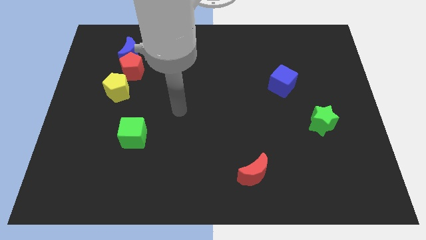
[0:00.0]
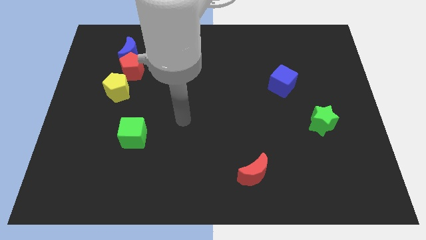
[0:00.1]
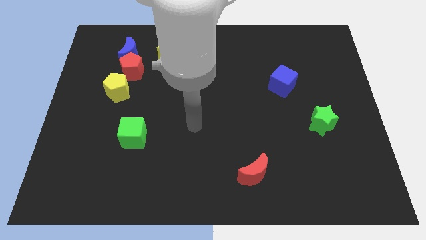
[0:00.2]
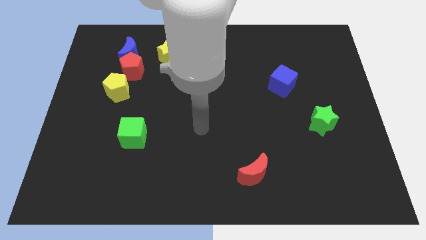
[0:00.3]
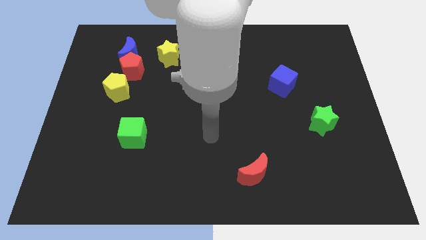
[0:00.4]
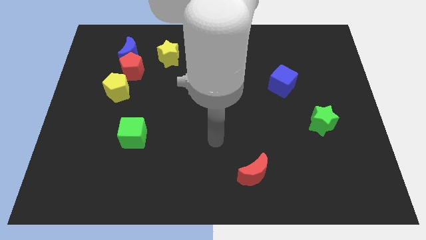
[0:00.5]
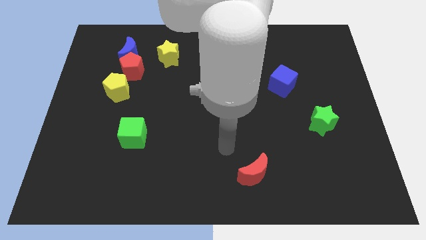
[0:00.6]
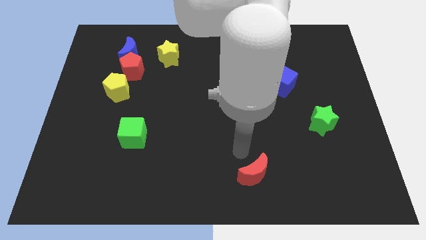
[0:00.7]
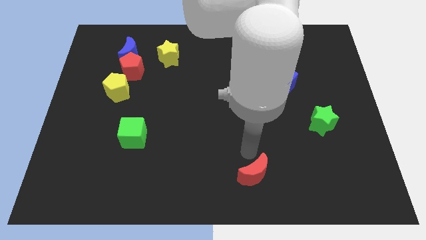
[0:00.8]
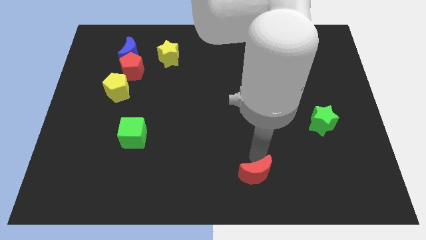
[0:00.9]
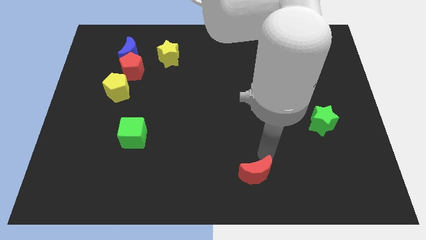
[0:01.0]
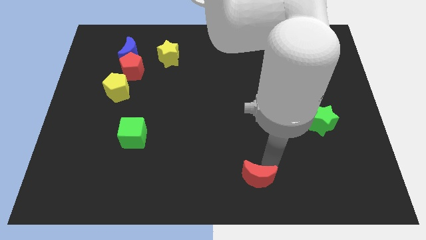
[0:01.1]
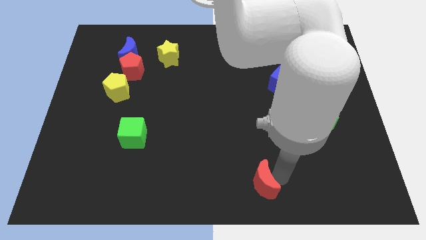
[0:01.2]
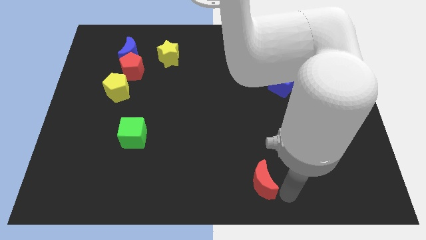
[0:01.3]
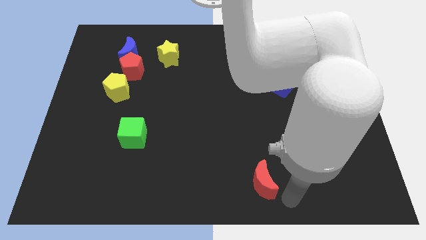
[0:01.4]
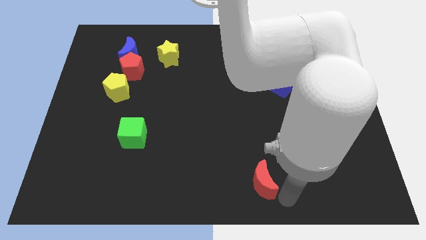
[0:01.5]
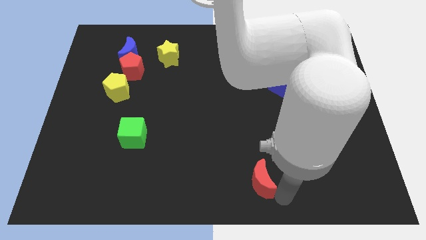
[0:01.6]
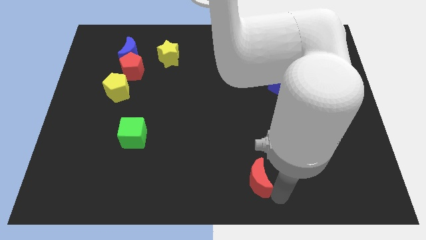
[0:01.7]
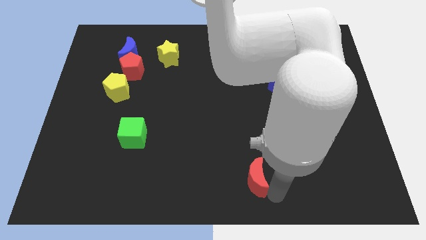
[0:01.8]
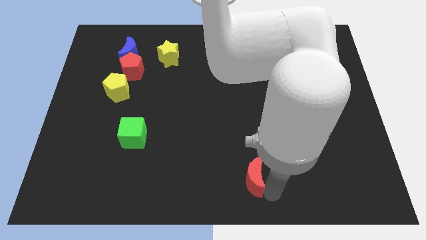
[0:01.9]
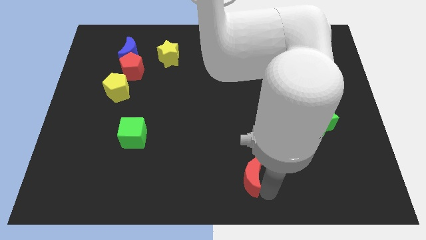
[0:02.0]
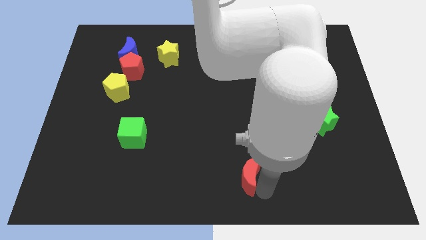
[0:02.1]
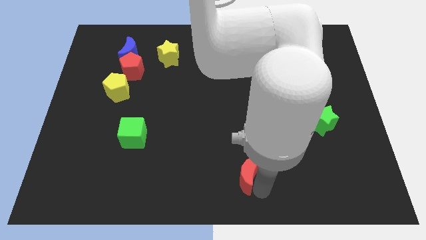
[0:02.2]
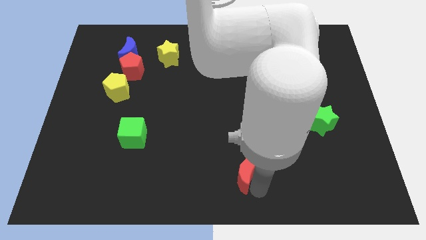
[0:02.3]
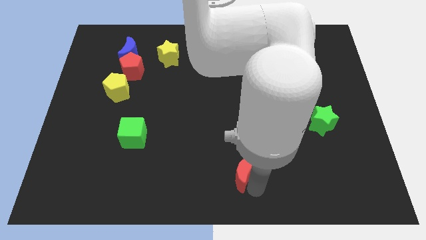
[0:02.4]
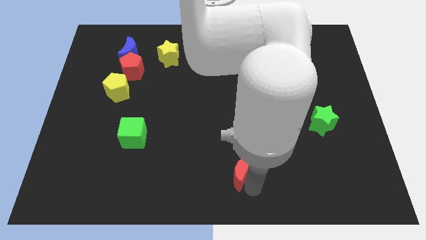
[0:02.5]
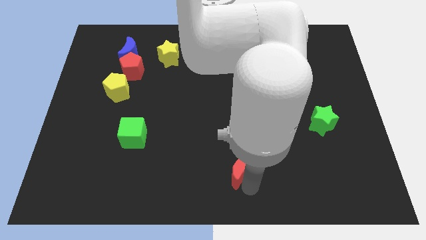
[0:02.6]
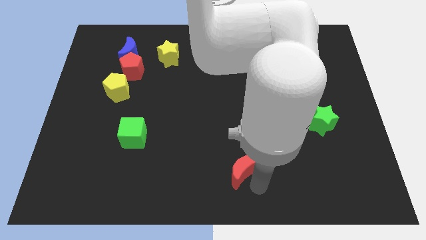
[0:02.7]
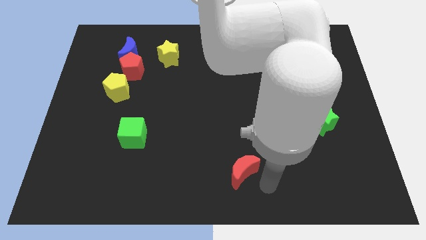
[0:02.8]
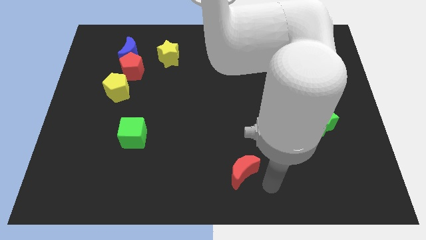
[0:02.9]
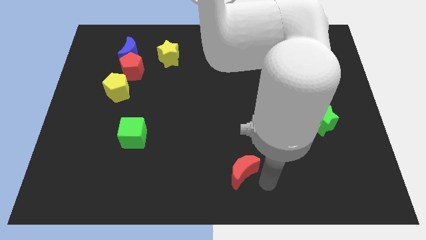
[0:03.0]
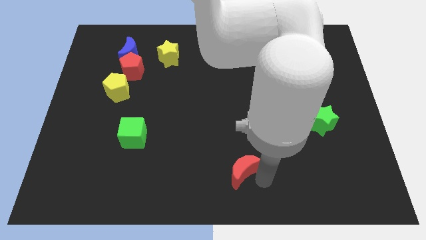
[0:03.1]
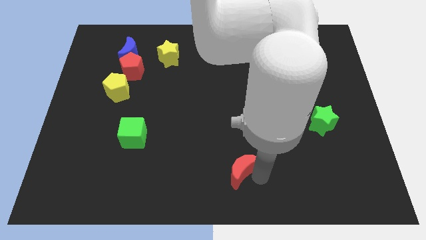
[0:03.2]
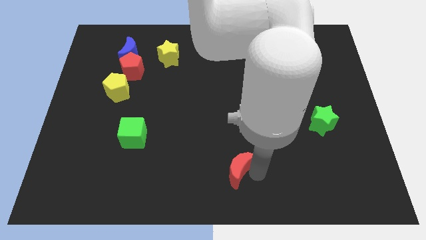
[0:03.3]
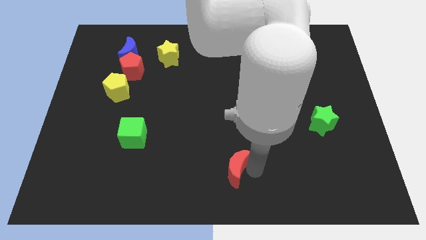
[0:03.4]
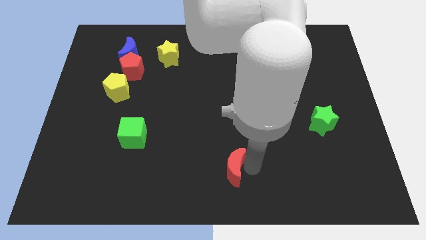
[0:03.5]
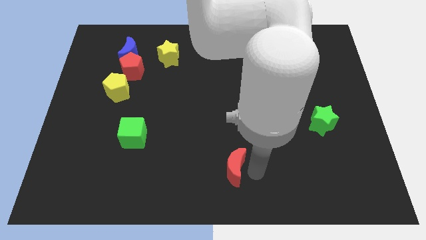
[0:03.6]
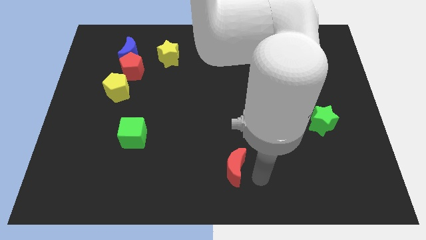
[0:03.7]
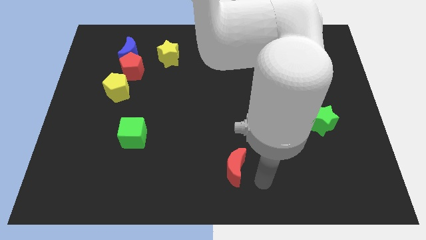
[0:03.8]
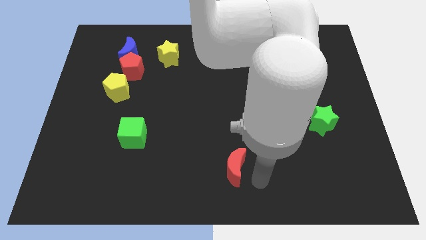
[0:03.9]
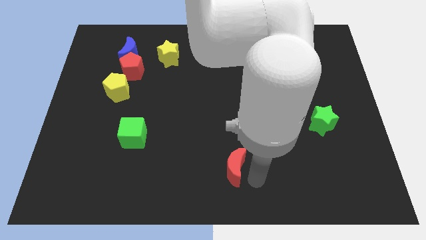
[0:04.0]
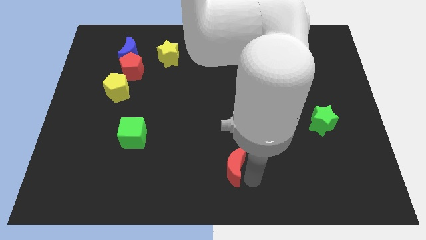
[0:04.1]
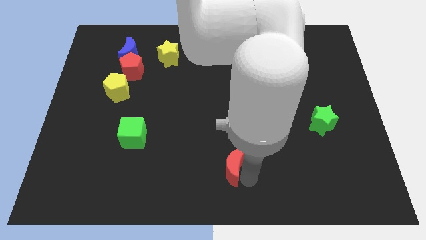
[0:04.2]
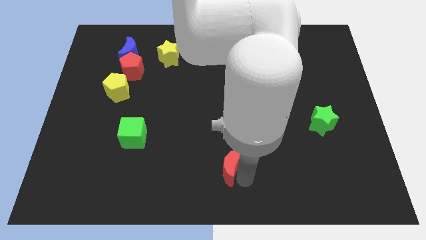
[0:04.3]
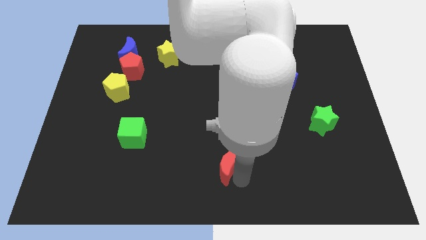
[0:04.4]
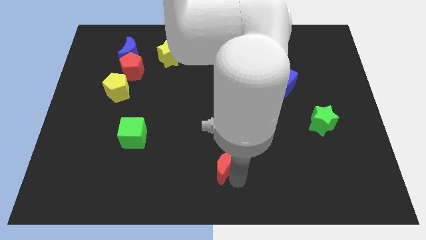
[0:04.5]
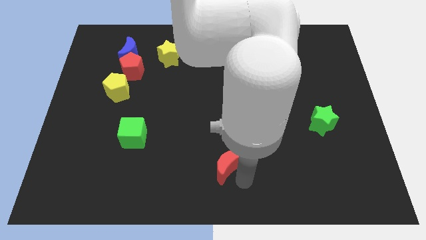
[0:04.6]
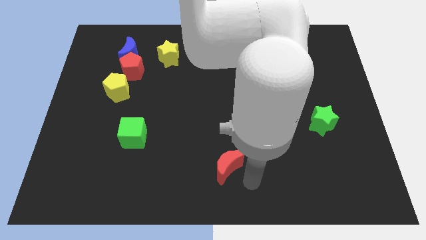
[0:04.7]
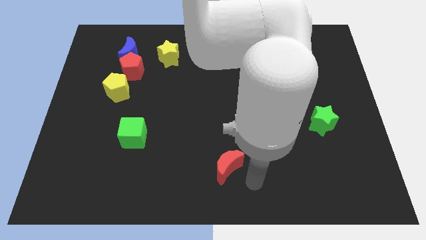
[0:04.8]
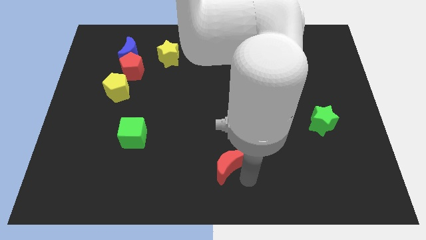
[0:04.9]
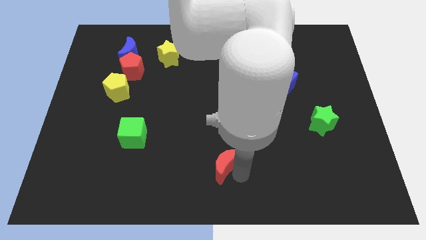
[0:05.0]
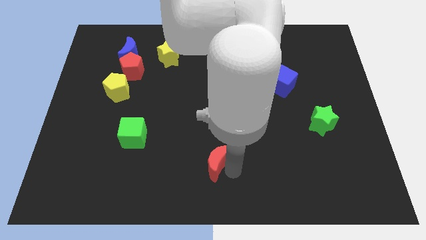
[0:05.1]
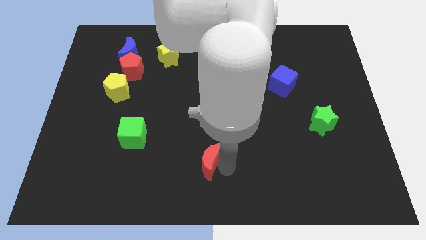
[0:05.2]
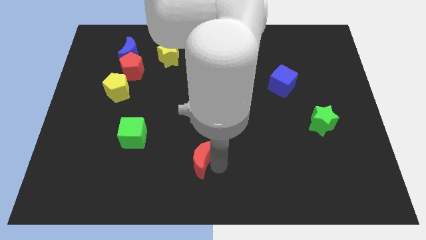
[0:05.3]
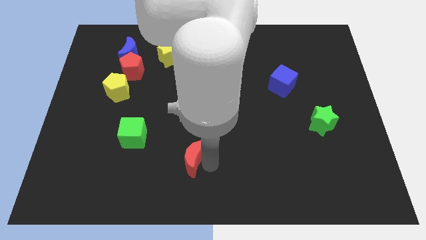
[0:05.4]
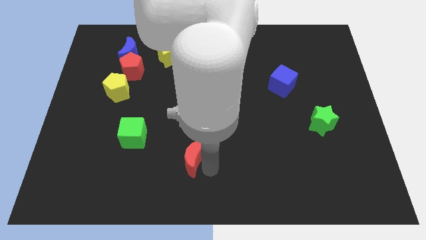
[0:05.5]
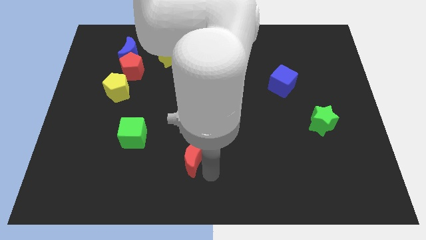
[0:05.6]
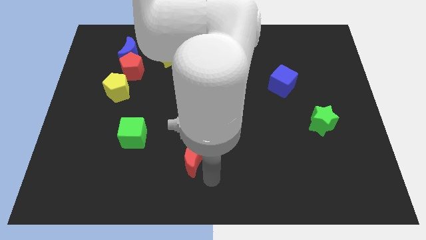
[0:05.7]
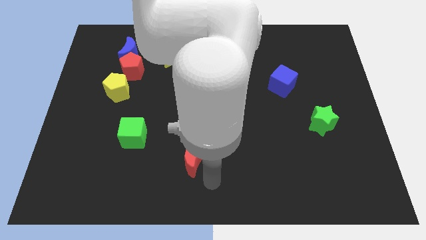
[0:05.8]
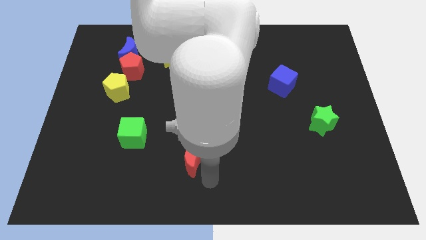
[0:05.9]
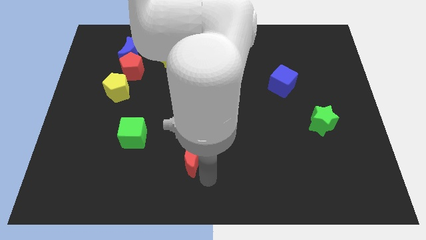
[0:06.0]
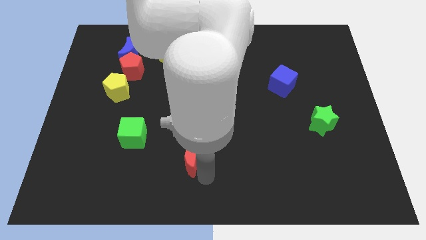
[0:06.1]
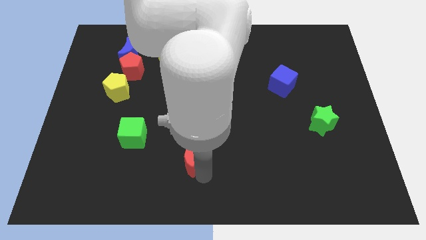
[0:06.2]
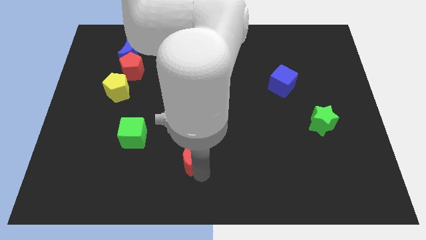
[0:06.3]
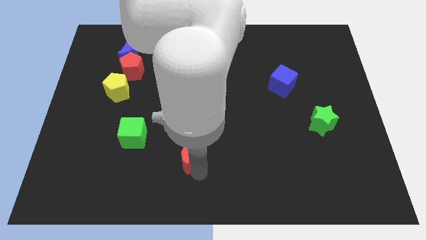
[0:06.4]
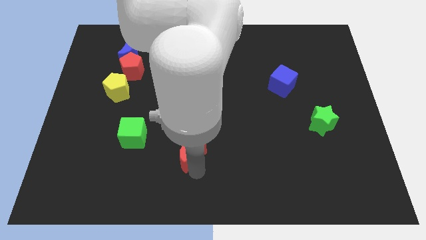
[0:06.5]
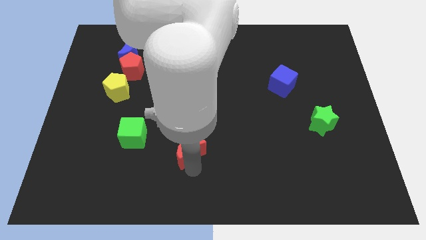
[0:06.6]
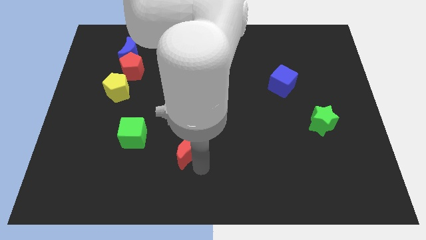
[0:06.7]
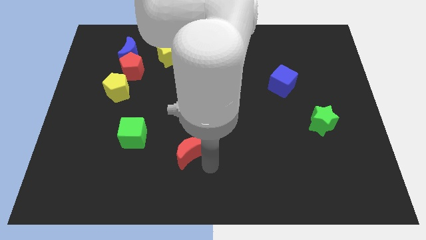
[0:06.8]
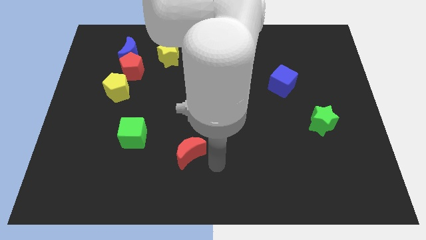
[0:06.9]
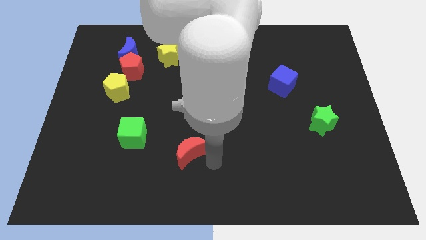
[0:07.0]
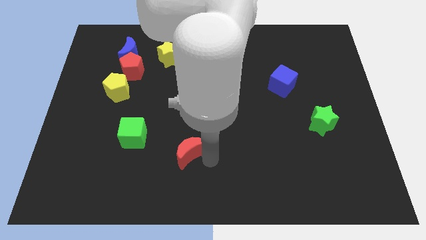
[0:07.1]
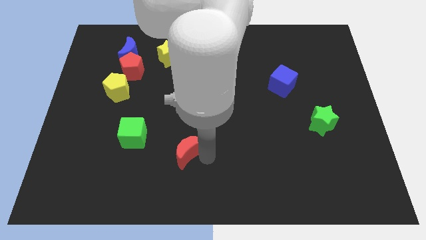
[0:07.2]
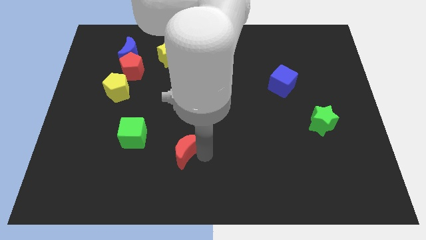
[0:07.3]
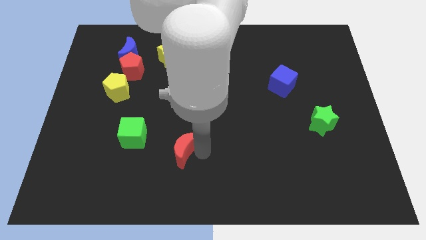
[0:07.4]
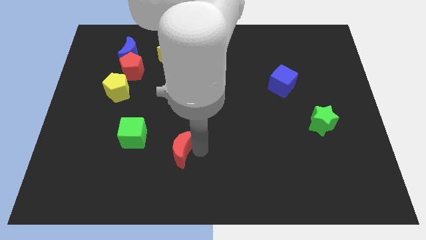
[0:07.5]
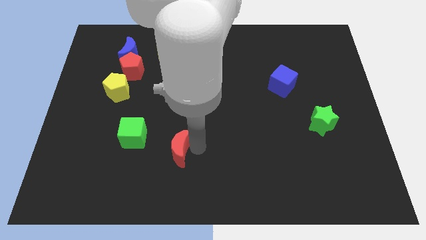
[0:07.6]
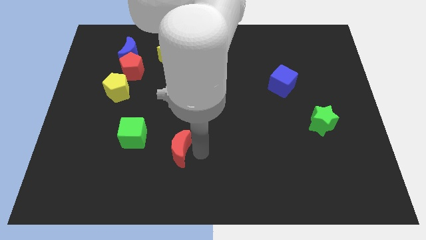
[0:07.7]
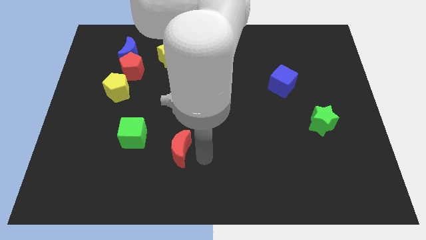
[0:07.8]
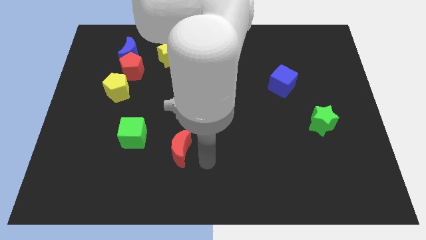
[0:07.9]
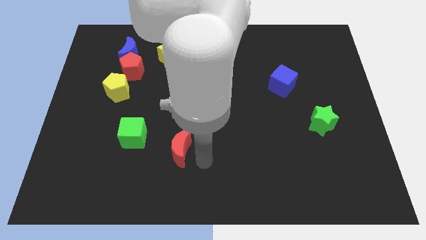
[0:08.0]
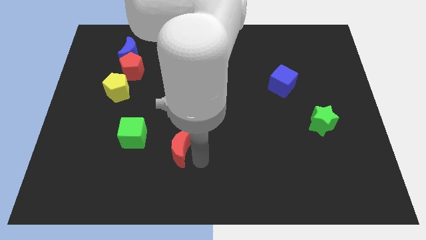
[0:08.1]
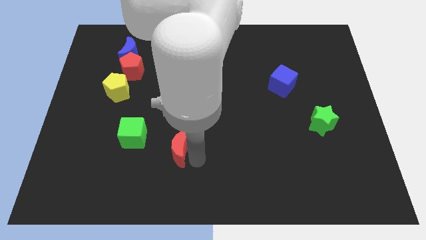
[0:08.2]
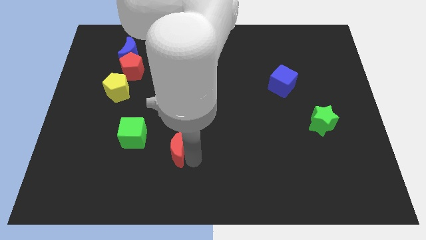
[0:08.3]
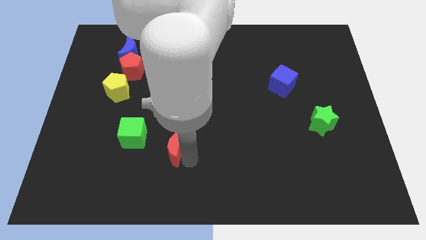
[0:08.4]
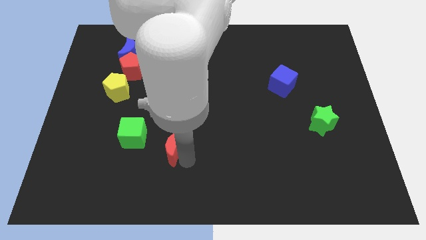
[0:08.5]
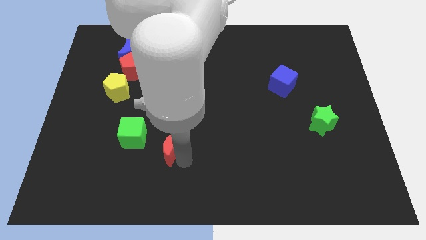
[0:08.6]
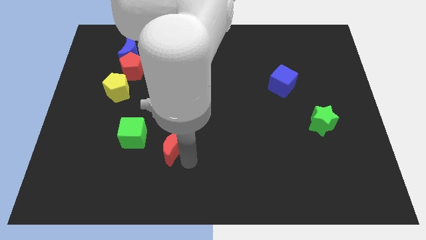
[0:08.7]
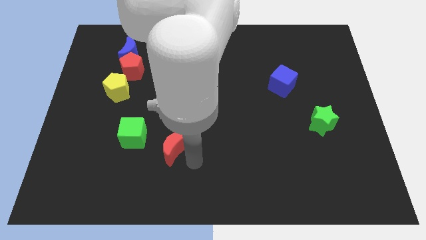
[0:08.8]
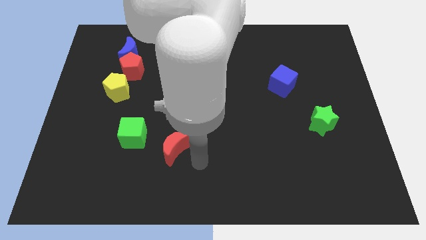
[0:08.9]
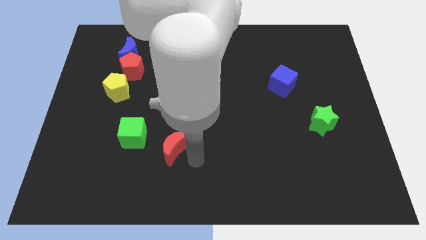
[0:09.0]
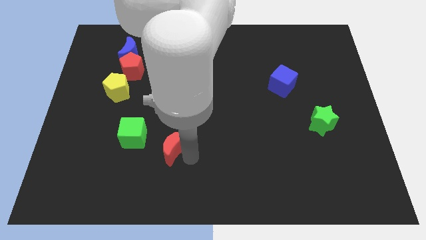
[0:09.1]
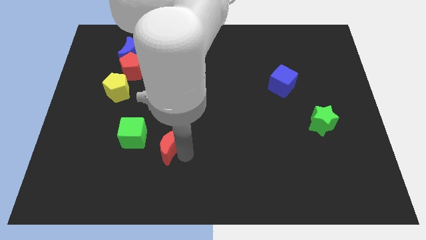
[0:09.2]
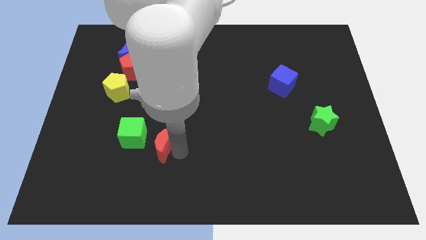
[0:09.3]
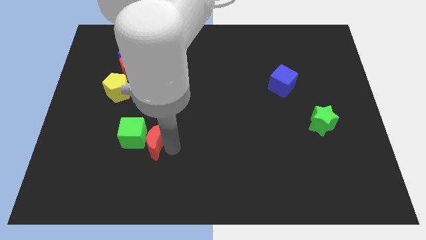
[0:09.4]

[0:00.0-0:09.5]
put the red moon close to the green cube
